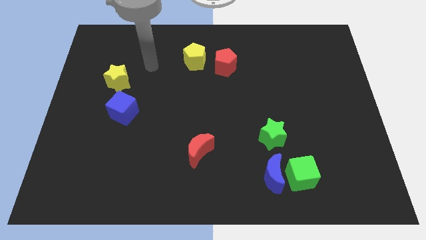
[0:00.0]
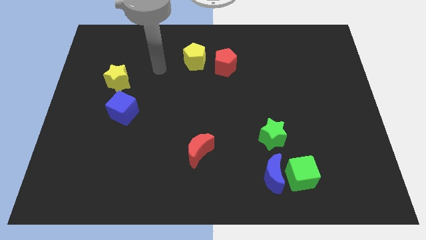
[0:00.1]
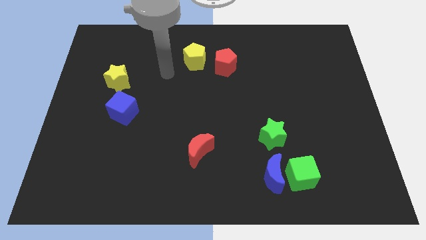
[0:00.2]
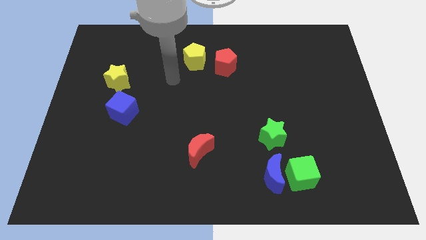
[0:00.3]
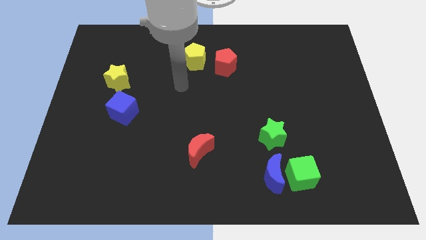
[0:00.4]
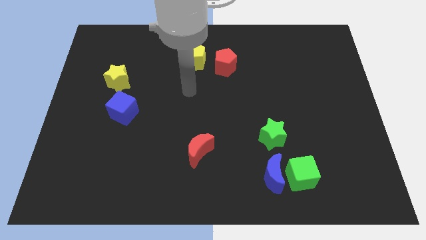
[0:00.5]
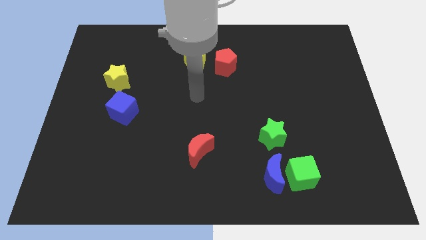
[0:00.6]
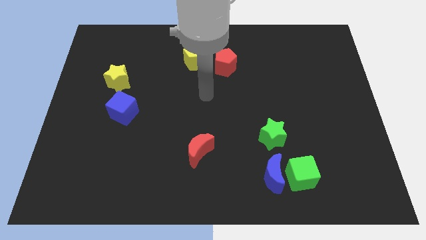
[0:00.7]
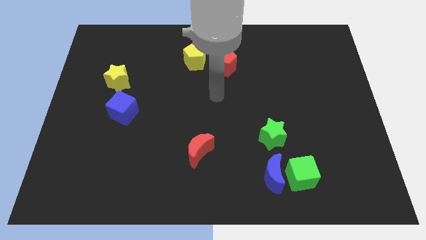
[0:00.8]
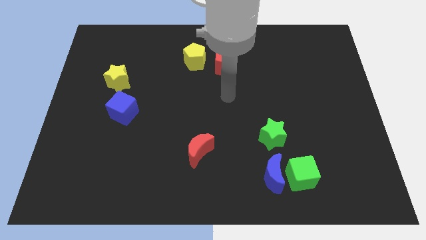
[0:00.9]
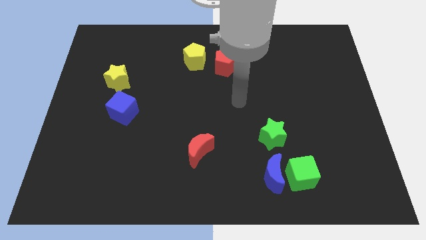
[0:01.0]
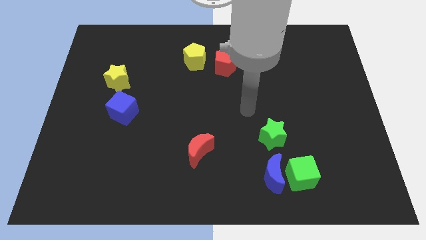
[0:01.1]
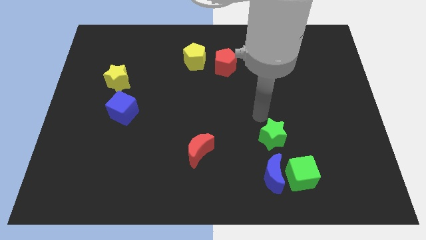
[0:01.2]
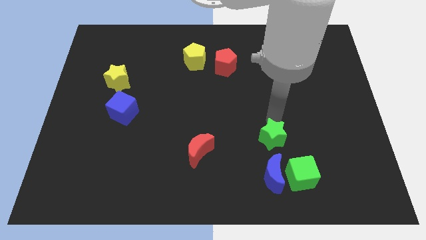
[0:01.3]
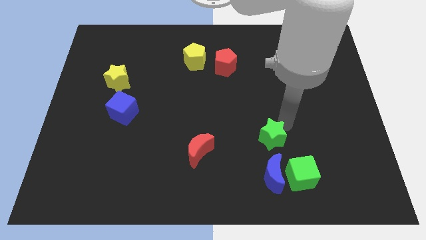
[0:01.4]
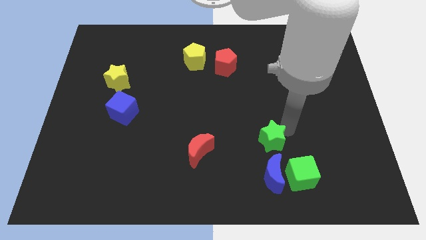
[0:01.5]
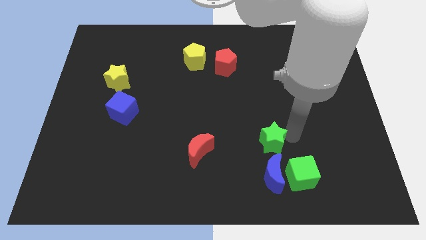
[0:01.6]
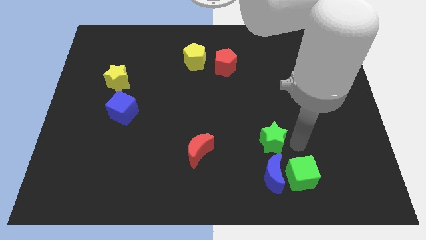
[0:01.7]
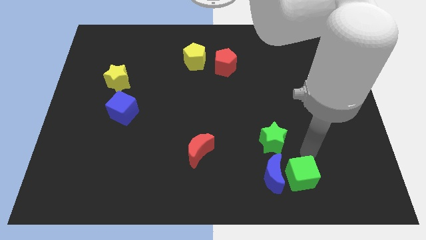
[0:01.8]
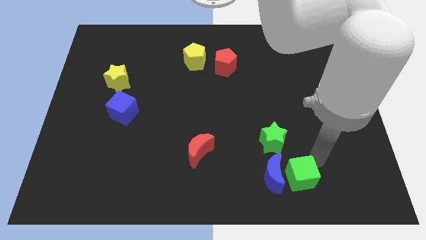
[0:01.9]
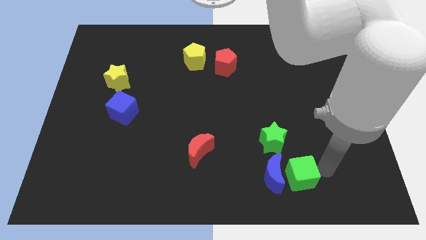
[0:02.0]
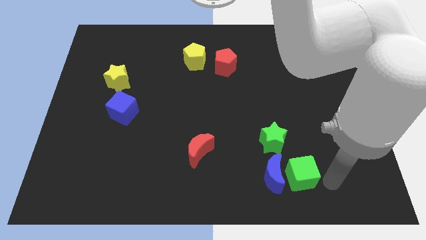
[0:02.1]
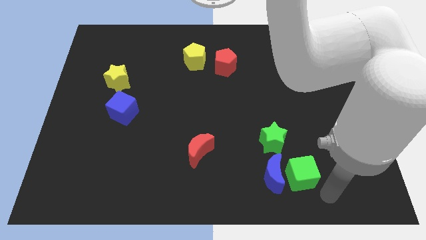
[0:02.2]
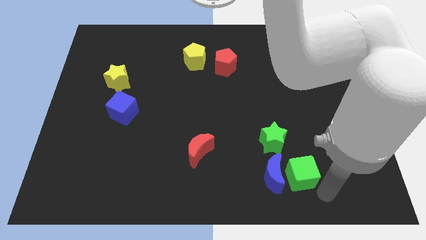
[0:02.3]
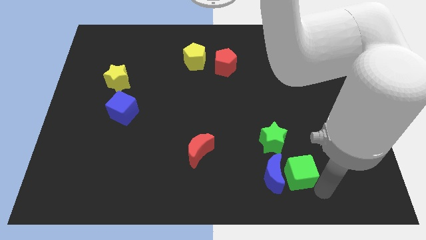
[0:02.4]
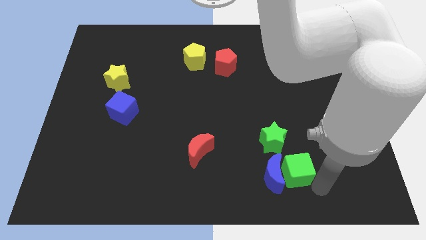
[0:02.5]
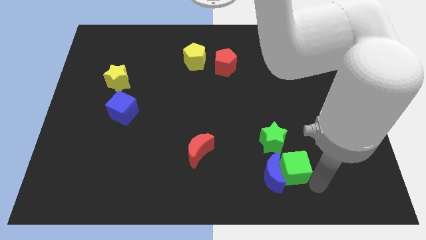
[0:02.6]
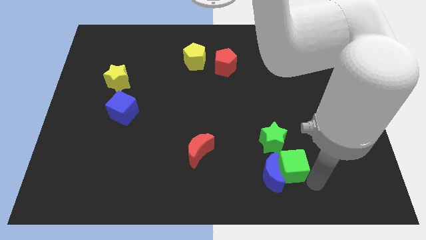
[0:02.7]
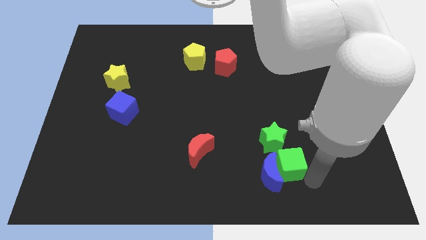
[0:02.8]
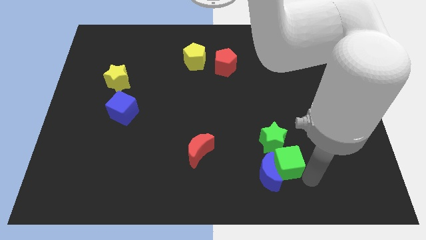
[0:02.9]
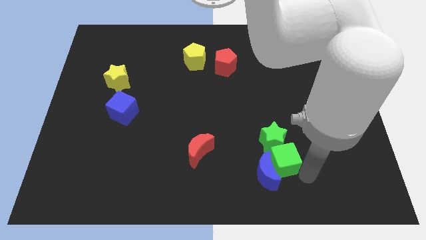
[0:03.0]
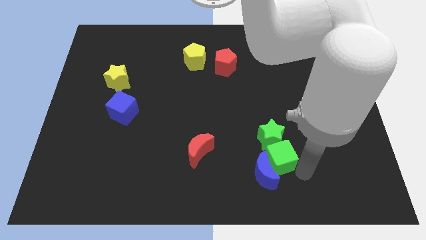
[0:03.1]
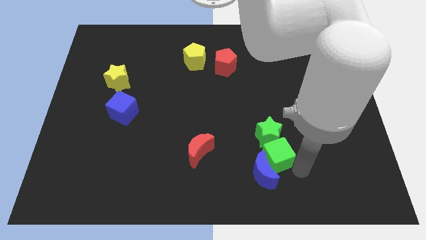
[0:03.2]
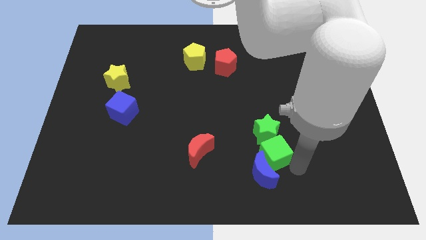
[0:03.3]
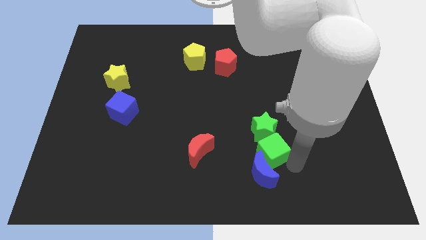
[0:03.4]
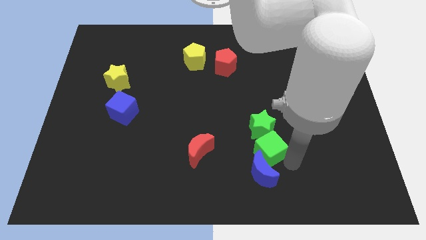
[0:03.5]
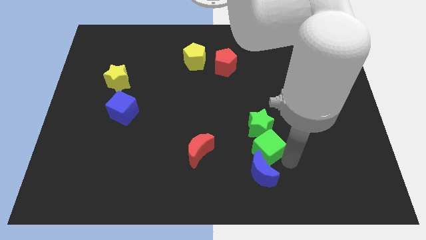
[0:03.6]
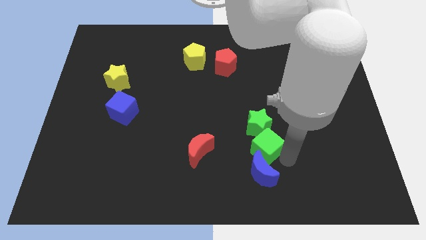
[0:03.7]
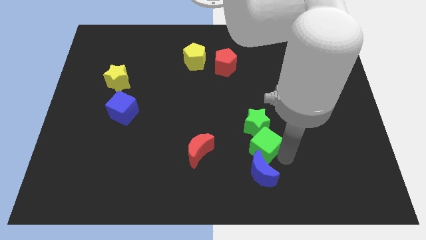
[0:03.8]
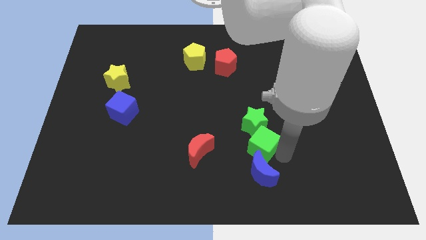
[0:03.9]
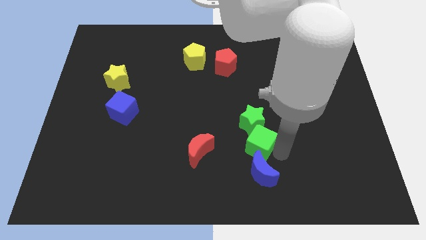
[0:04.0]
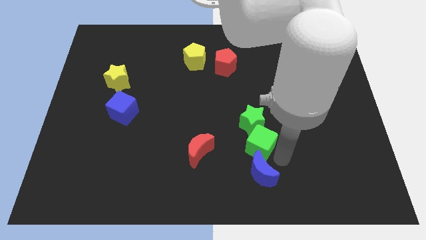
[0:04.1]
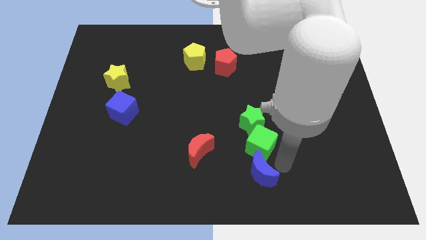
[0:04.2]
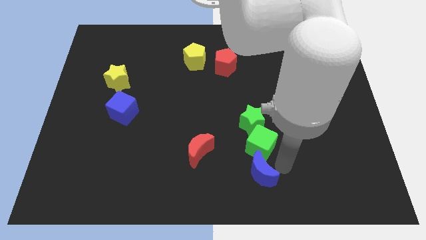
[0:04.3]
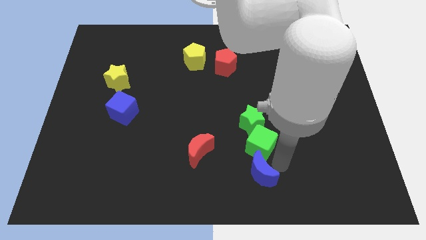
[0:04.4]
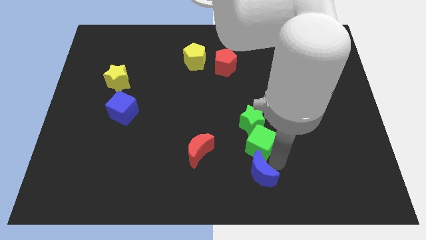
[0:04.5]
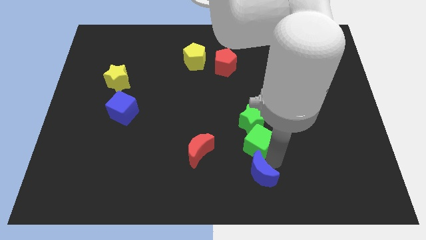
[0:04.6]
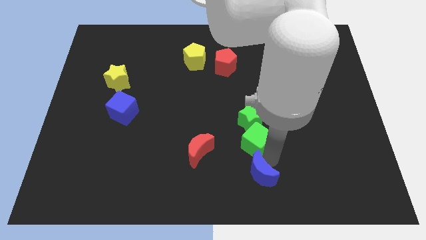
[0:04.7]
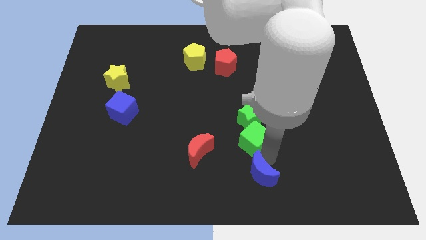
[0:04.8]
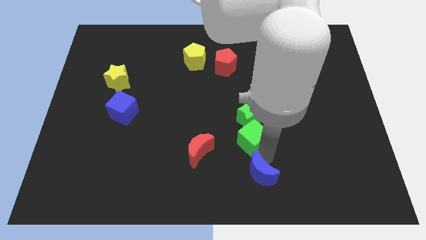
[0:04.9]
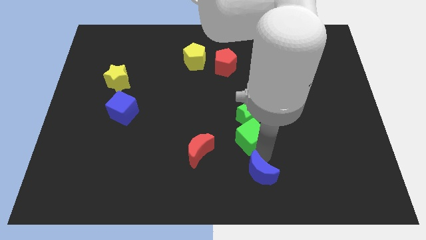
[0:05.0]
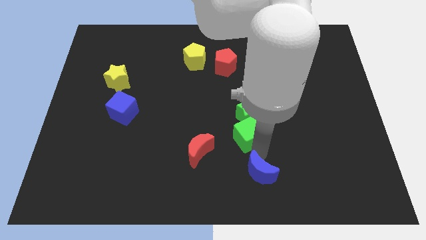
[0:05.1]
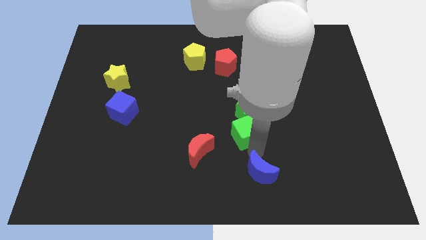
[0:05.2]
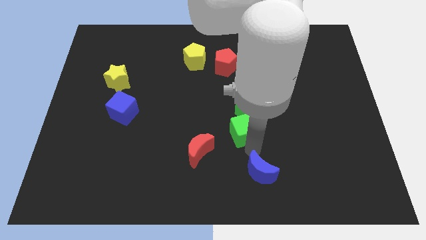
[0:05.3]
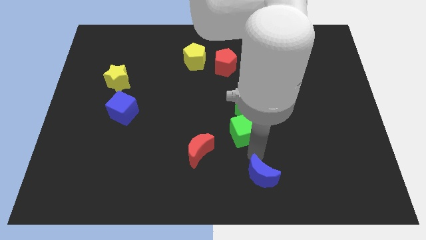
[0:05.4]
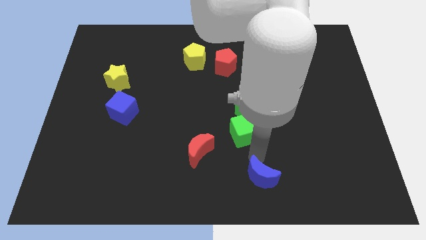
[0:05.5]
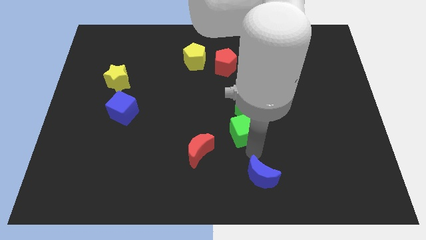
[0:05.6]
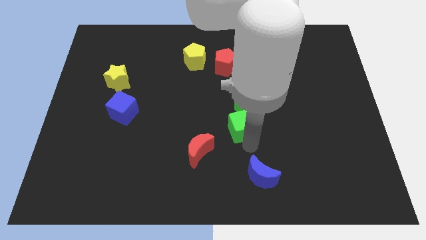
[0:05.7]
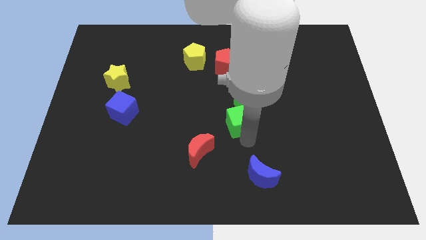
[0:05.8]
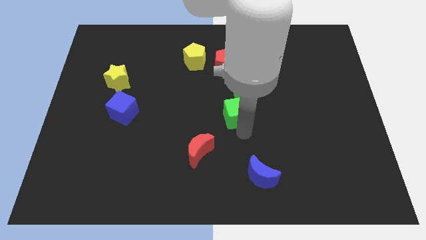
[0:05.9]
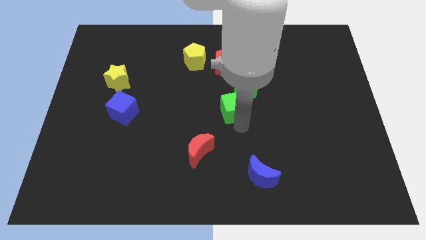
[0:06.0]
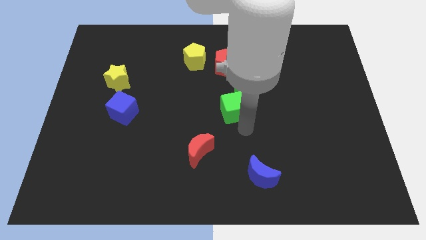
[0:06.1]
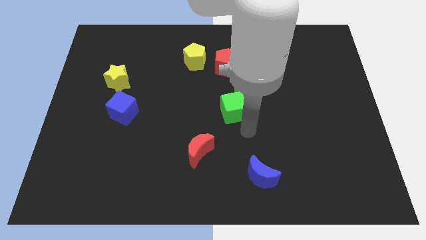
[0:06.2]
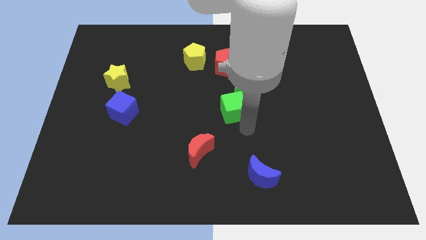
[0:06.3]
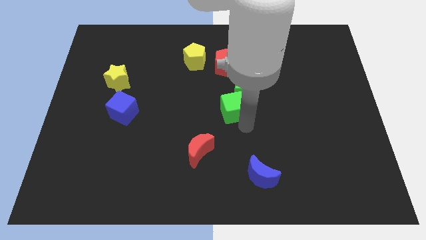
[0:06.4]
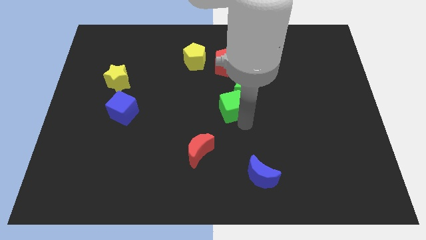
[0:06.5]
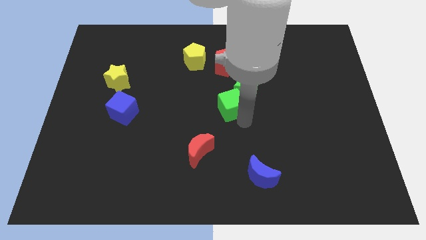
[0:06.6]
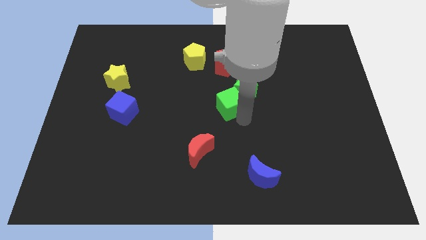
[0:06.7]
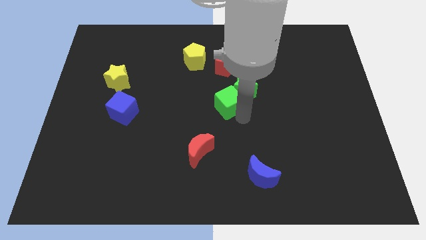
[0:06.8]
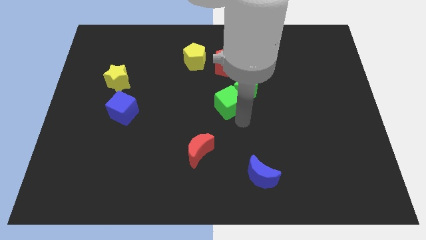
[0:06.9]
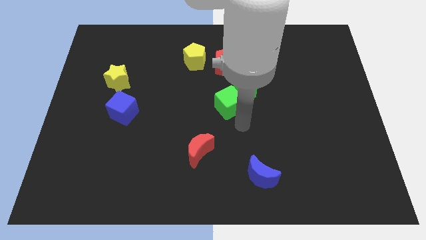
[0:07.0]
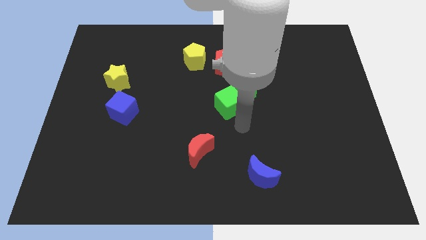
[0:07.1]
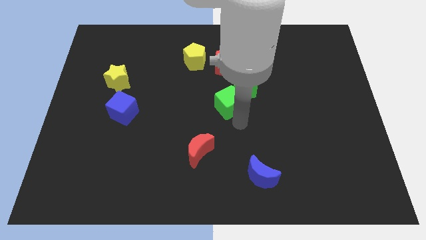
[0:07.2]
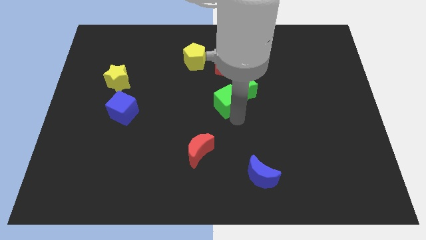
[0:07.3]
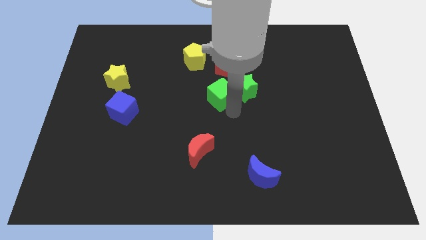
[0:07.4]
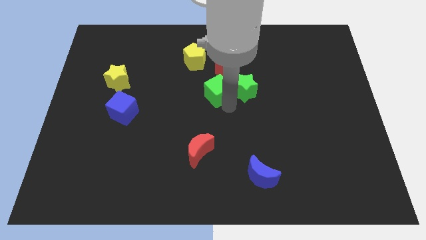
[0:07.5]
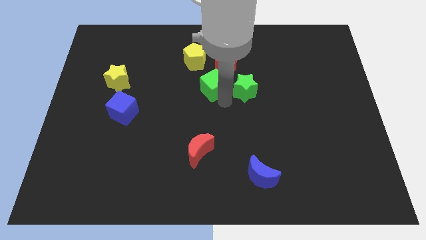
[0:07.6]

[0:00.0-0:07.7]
slide the green cube diagonally down and to the left of the red pentagon
